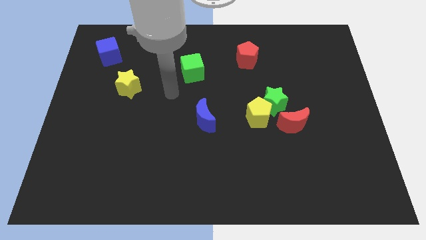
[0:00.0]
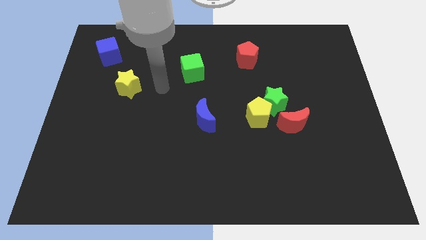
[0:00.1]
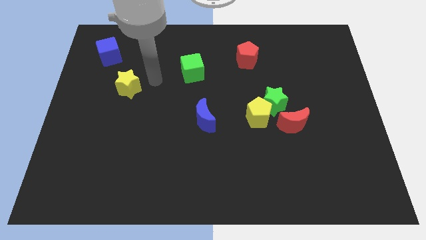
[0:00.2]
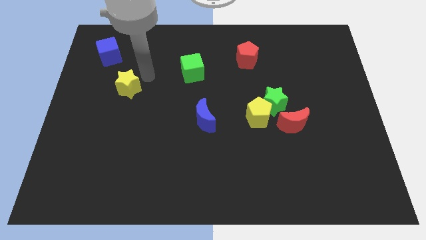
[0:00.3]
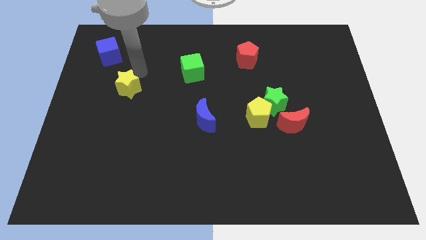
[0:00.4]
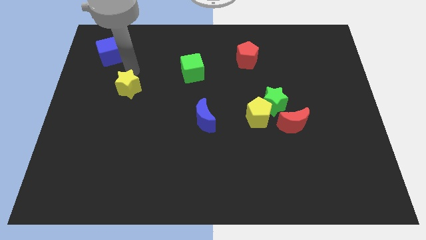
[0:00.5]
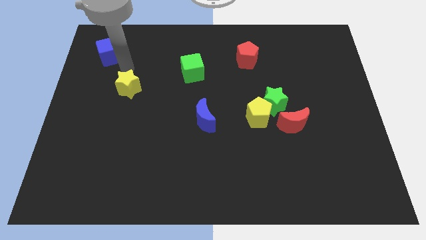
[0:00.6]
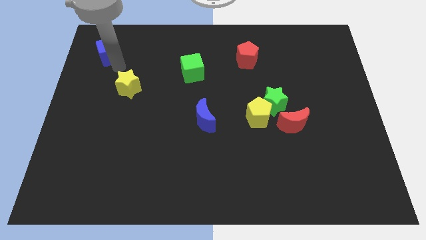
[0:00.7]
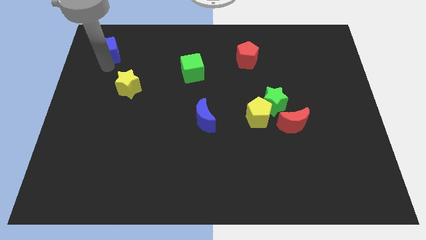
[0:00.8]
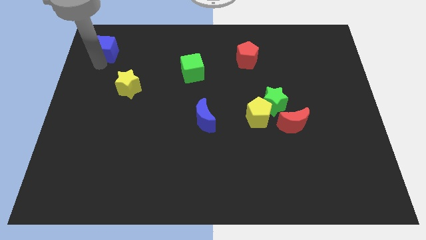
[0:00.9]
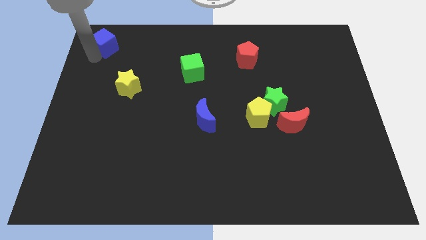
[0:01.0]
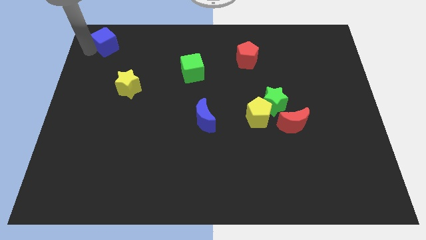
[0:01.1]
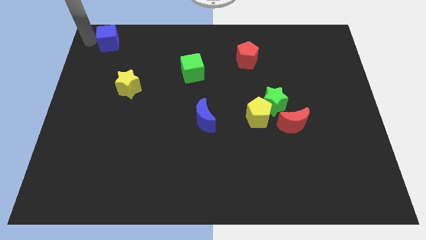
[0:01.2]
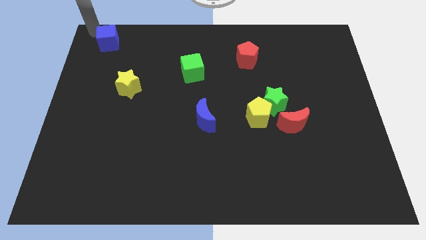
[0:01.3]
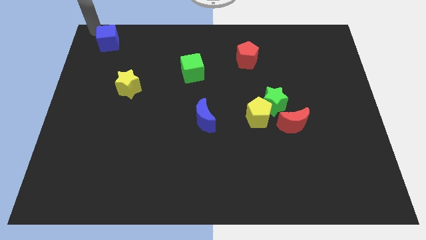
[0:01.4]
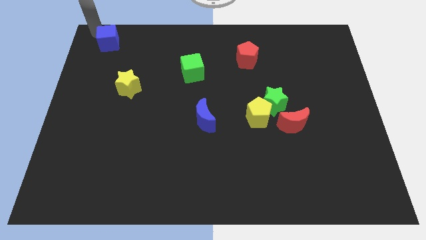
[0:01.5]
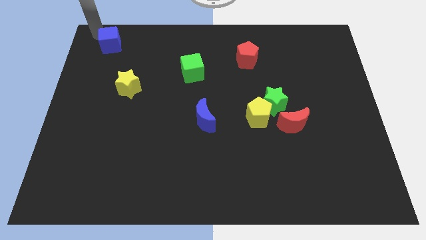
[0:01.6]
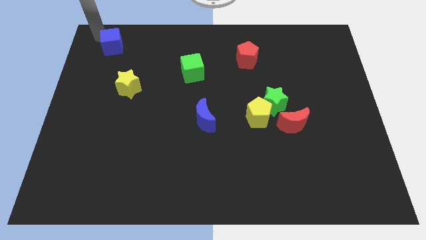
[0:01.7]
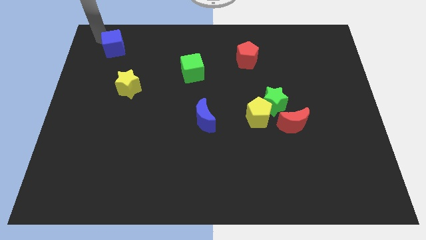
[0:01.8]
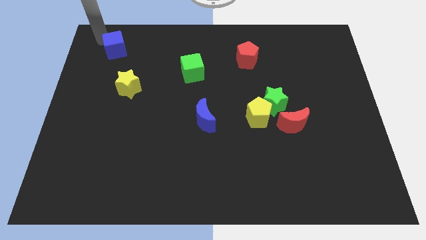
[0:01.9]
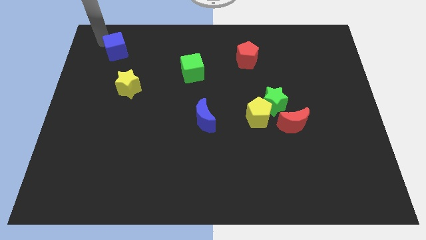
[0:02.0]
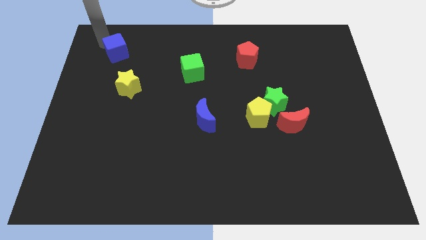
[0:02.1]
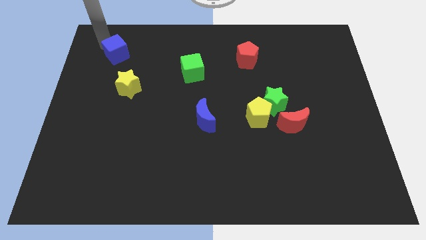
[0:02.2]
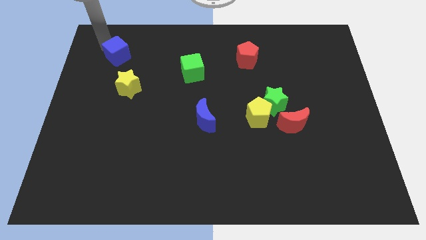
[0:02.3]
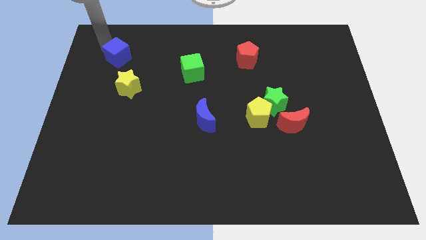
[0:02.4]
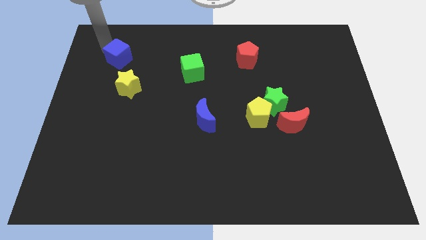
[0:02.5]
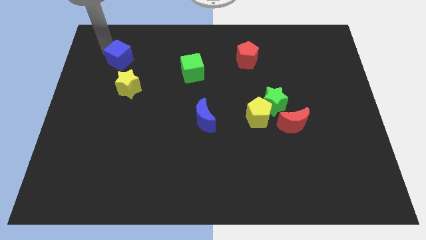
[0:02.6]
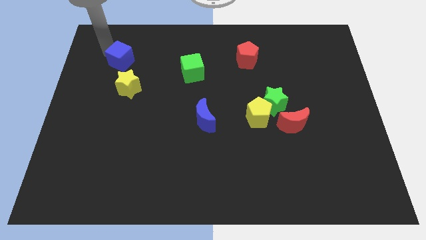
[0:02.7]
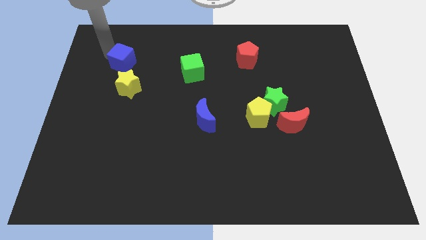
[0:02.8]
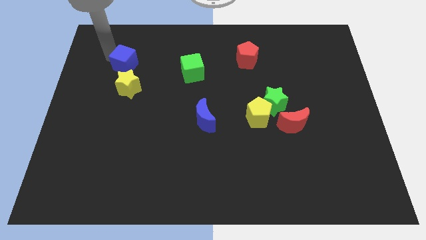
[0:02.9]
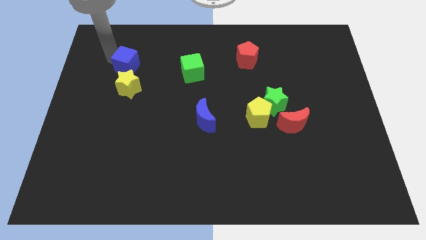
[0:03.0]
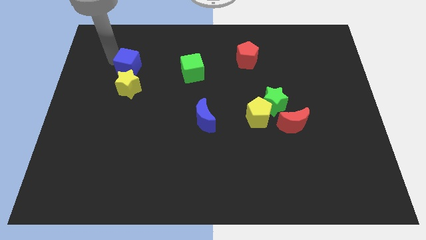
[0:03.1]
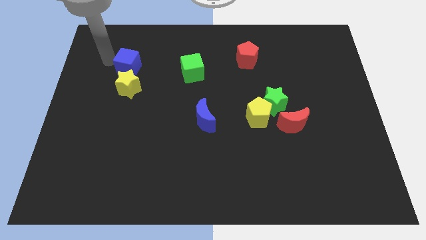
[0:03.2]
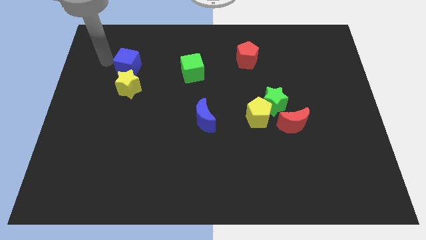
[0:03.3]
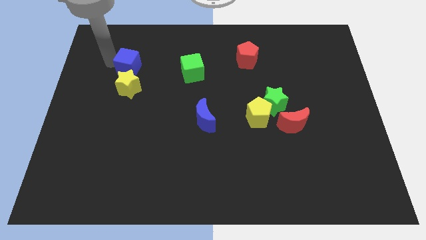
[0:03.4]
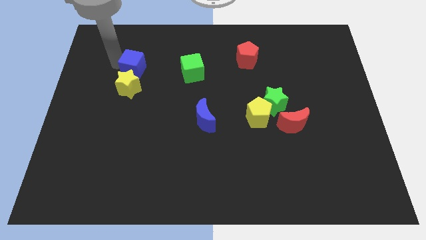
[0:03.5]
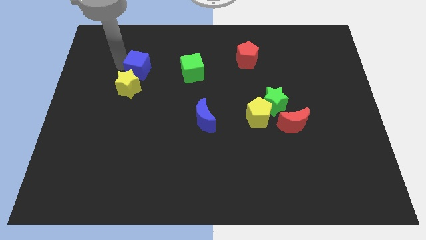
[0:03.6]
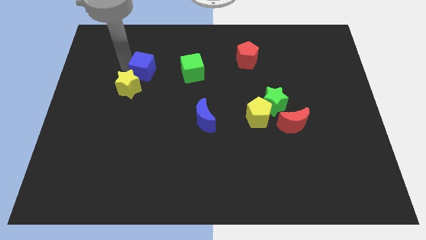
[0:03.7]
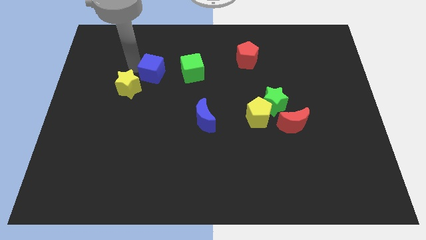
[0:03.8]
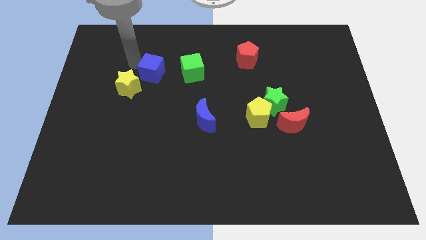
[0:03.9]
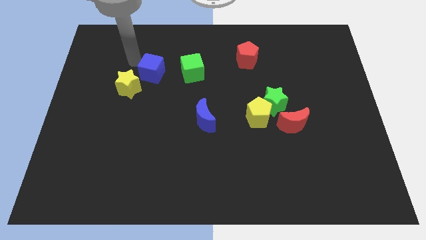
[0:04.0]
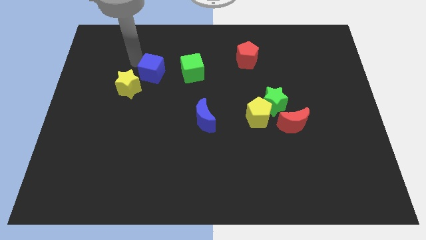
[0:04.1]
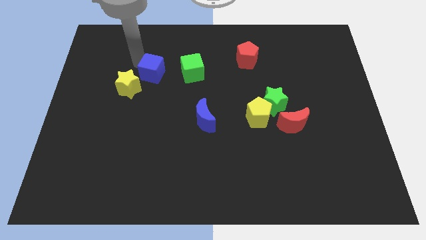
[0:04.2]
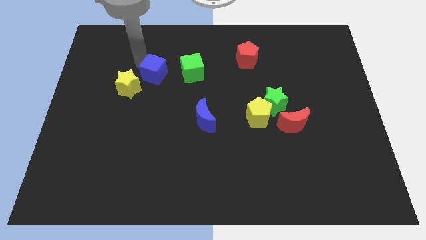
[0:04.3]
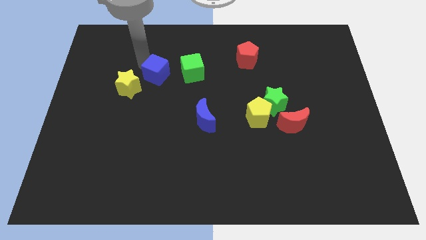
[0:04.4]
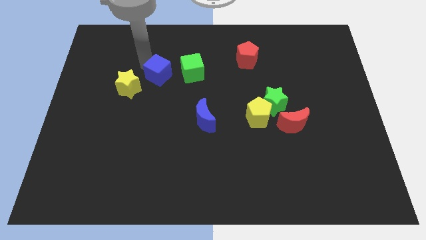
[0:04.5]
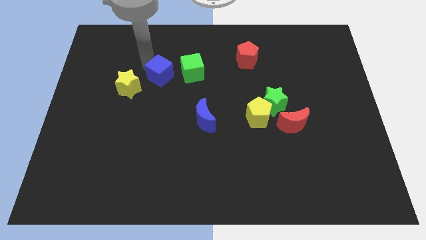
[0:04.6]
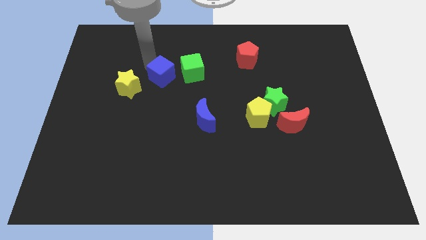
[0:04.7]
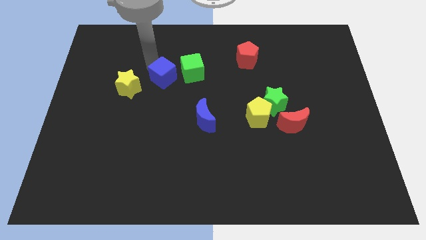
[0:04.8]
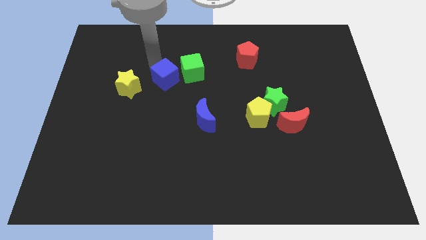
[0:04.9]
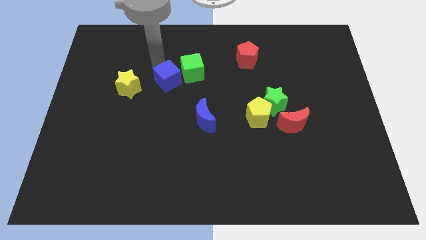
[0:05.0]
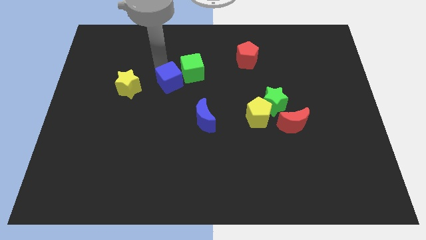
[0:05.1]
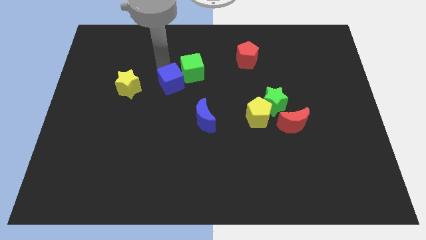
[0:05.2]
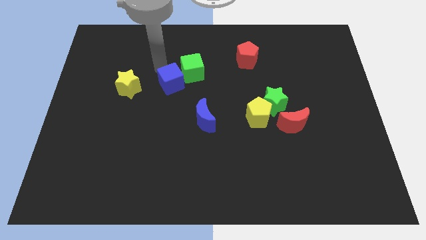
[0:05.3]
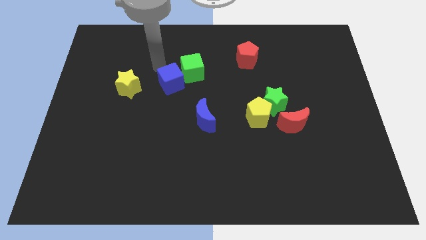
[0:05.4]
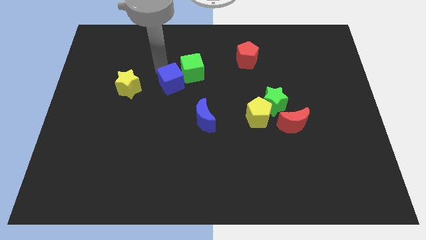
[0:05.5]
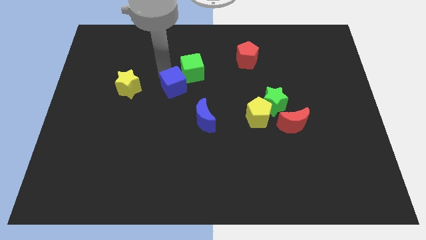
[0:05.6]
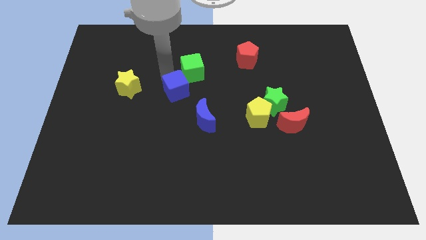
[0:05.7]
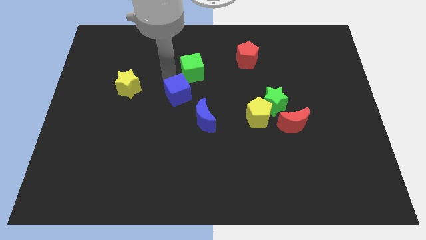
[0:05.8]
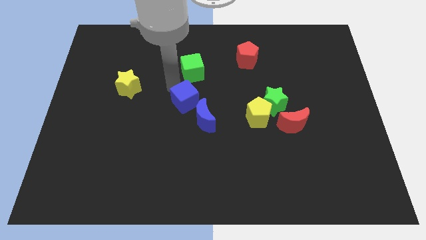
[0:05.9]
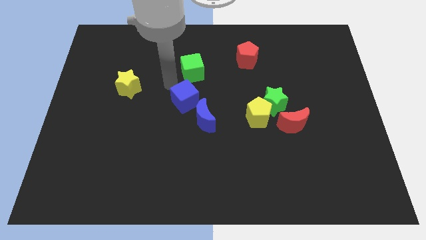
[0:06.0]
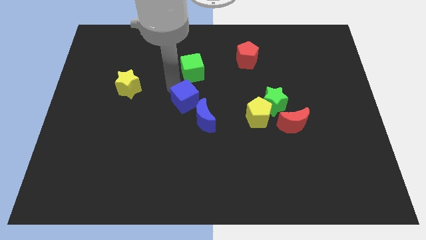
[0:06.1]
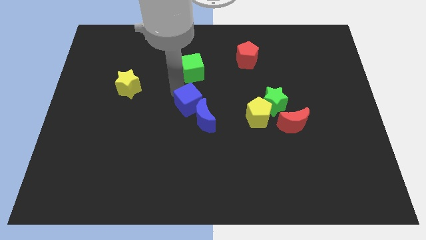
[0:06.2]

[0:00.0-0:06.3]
put the blue cube towards the blue moon

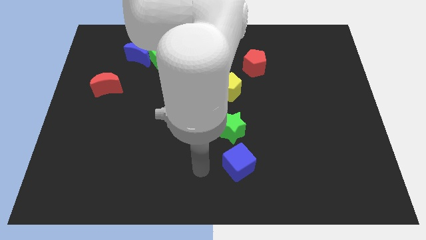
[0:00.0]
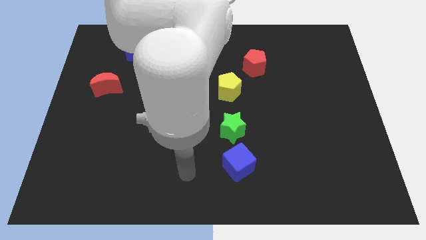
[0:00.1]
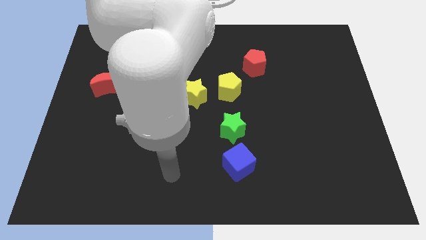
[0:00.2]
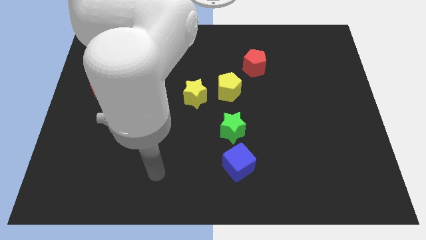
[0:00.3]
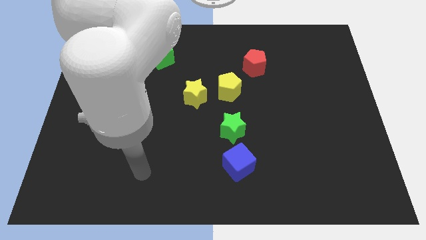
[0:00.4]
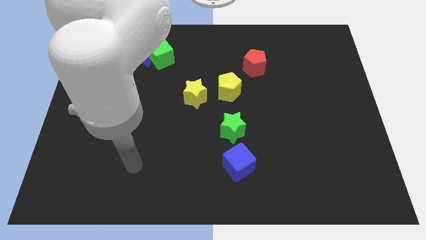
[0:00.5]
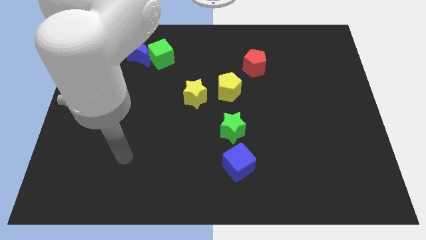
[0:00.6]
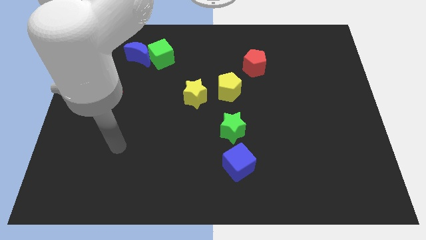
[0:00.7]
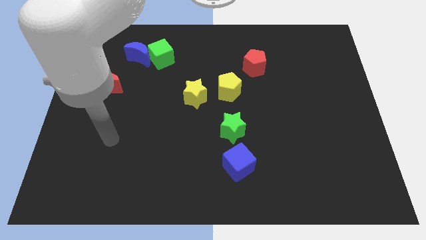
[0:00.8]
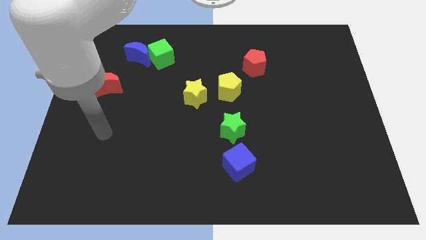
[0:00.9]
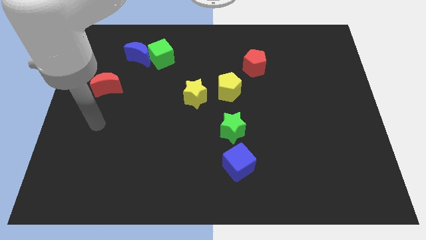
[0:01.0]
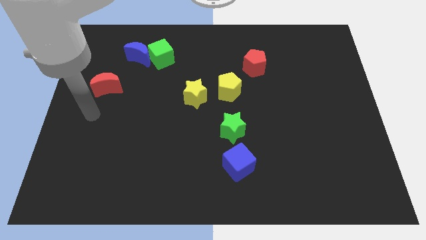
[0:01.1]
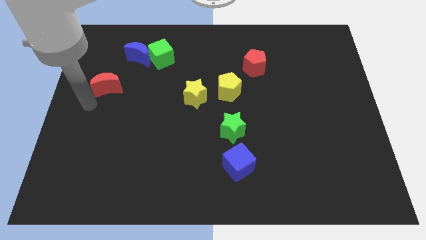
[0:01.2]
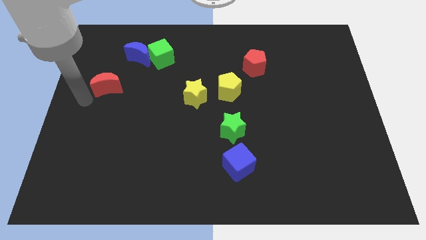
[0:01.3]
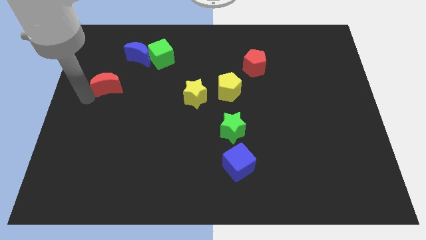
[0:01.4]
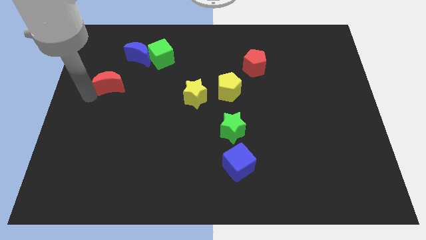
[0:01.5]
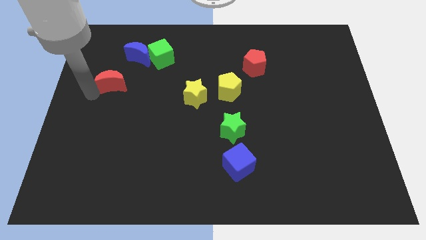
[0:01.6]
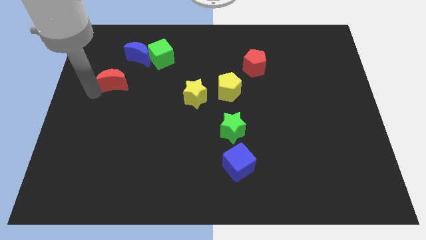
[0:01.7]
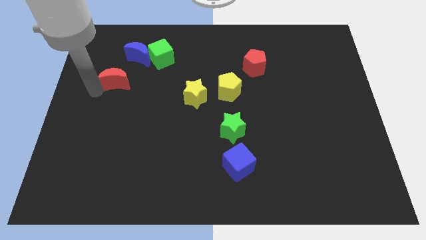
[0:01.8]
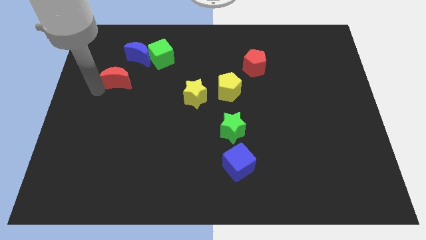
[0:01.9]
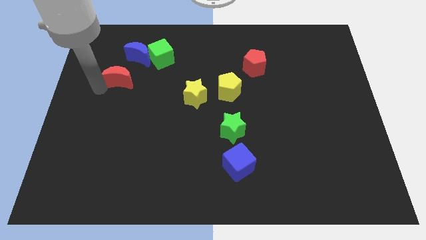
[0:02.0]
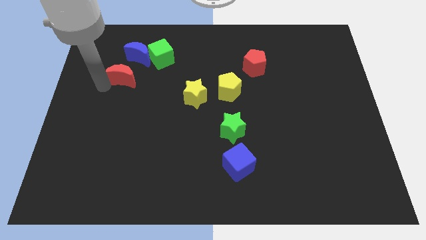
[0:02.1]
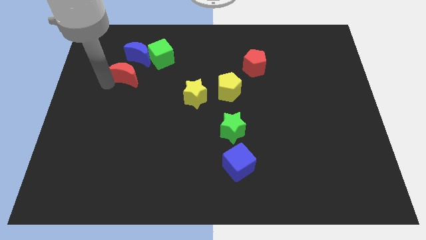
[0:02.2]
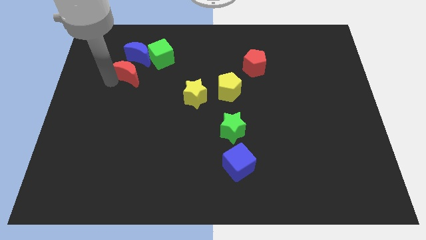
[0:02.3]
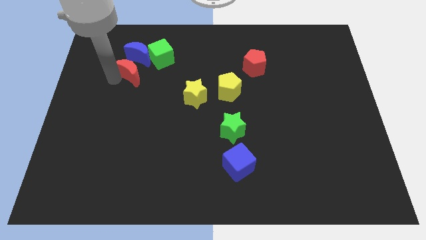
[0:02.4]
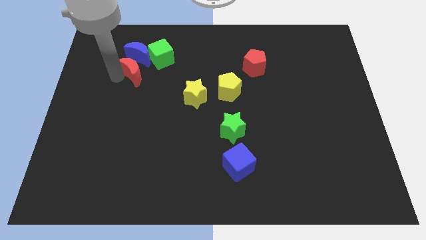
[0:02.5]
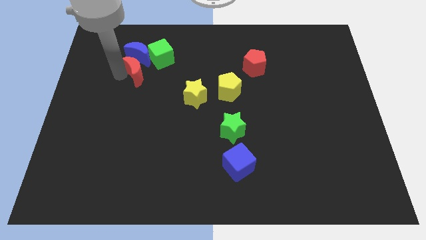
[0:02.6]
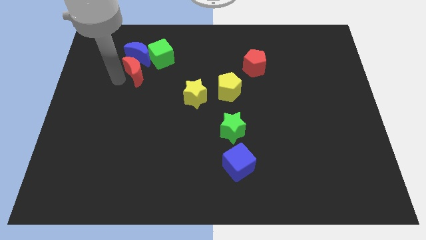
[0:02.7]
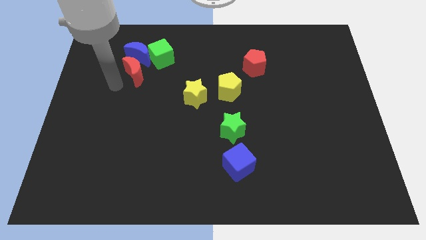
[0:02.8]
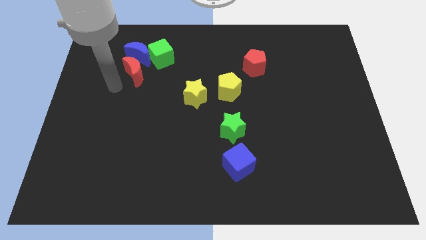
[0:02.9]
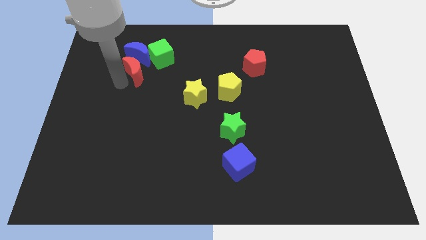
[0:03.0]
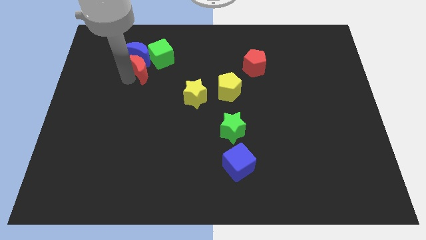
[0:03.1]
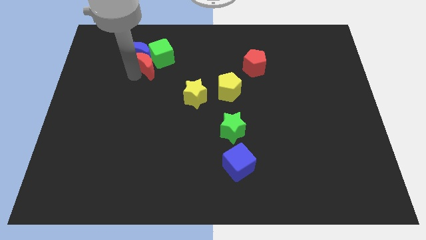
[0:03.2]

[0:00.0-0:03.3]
put the red moon close to the green cube
